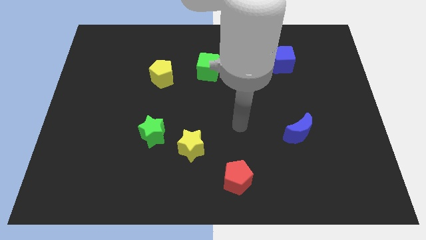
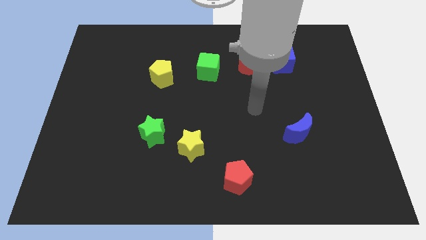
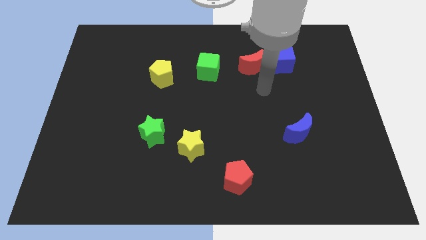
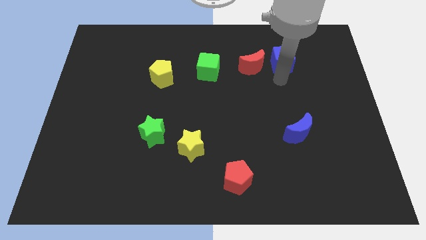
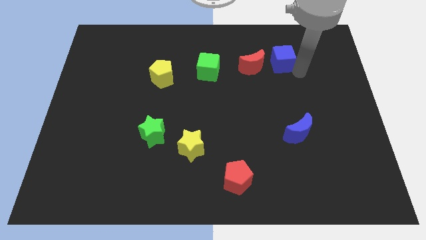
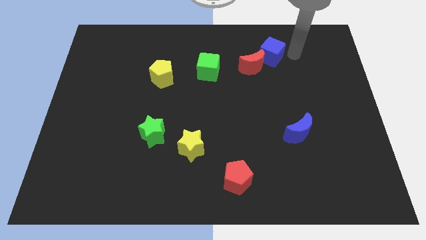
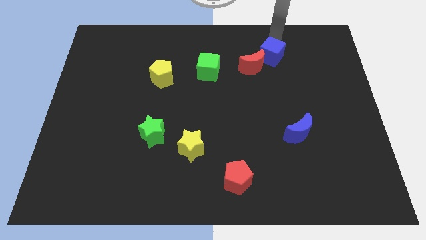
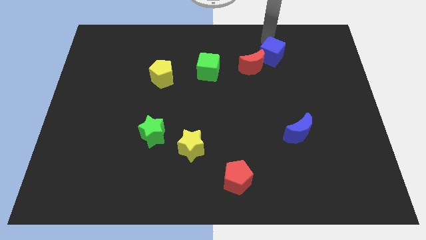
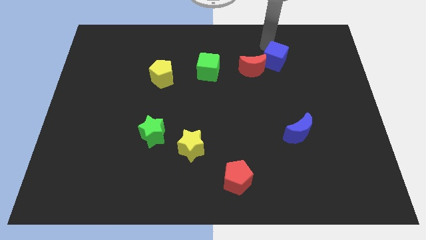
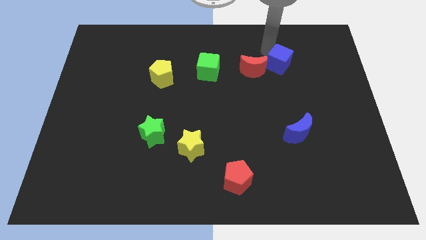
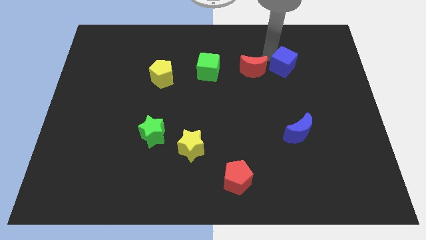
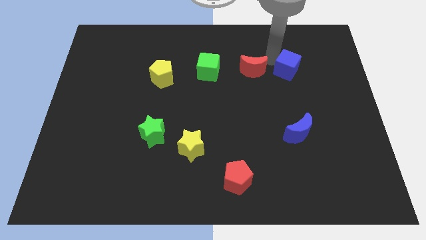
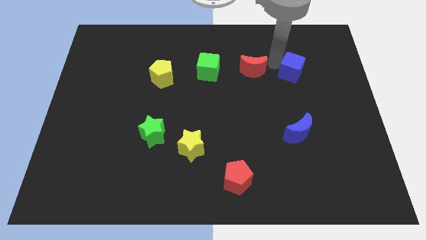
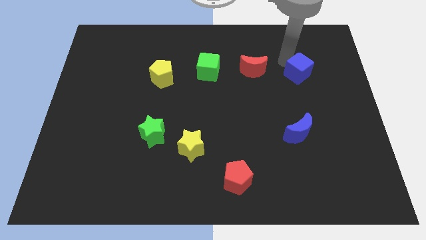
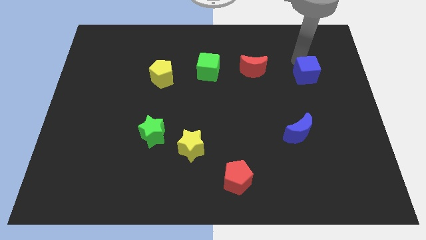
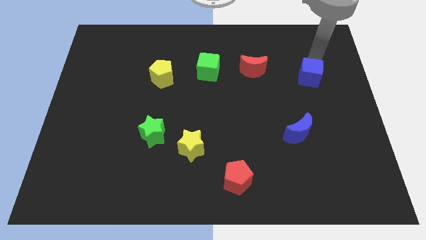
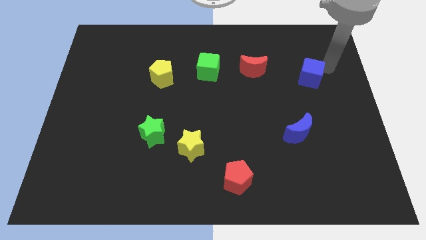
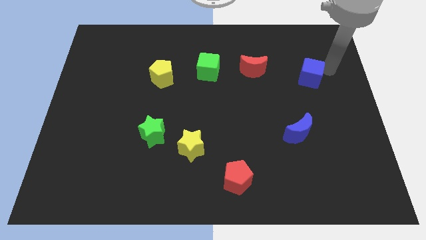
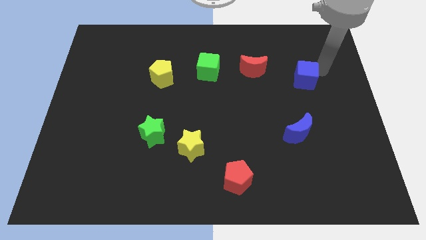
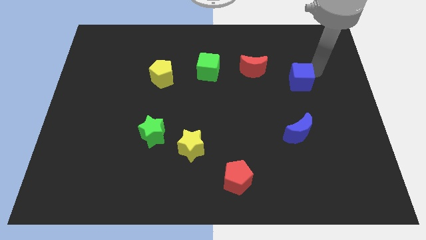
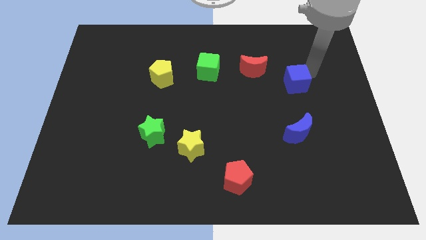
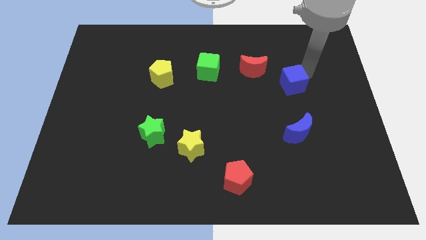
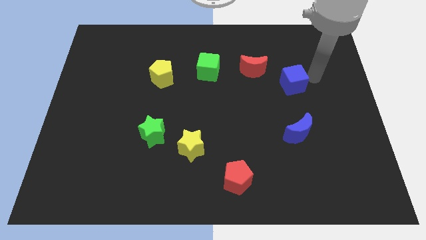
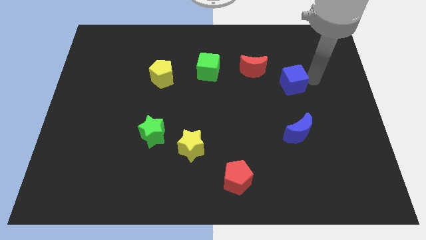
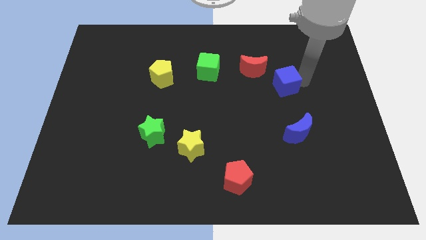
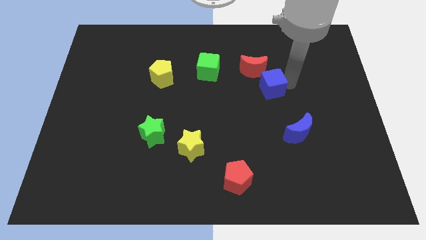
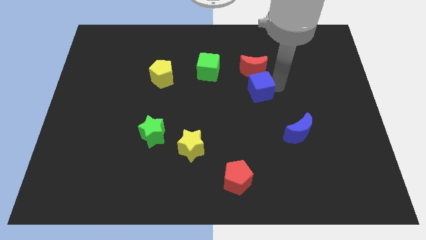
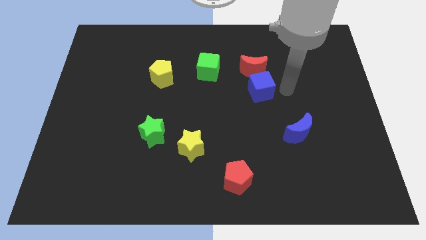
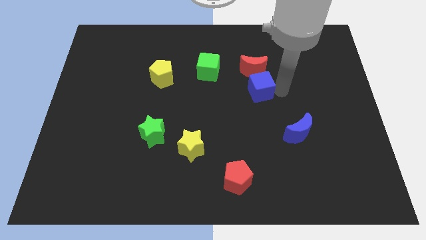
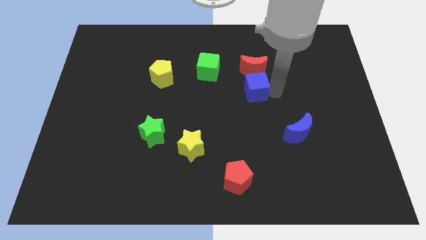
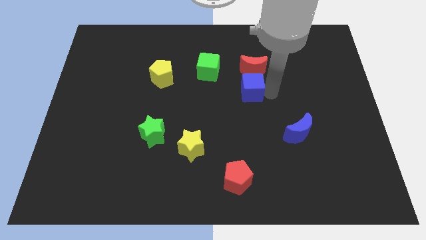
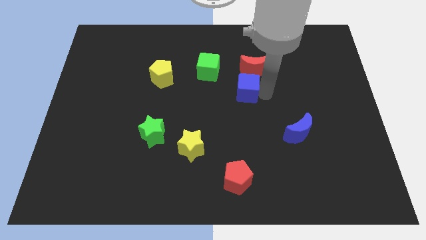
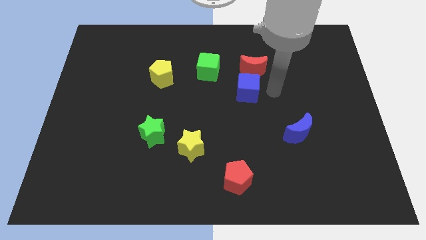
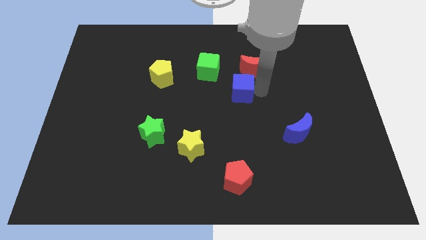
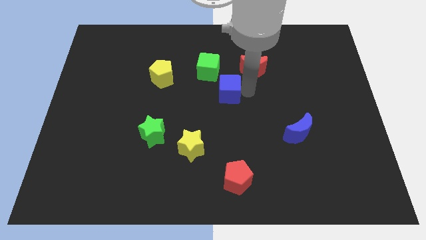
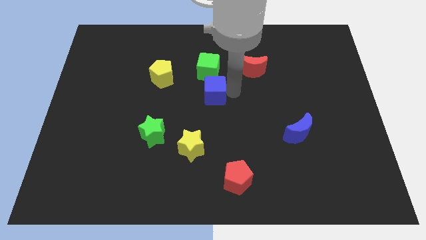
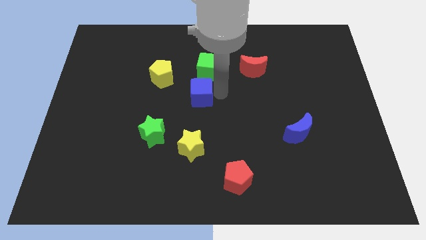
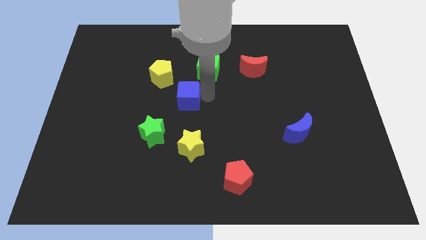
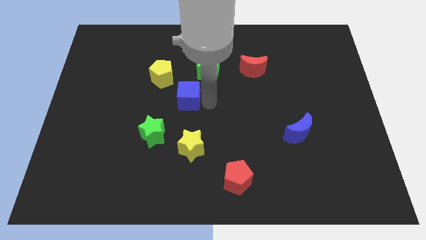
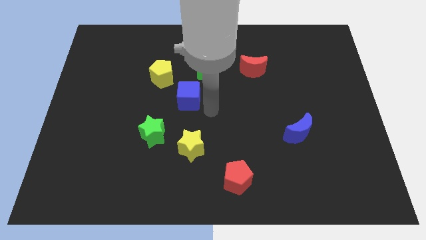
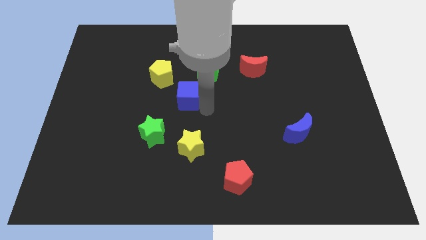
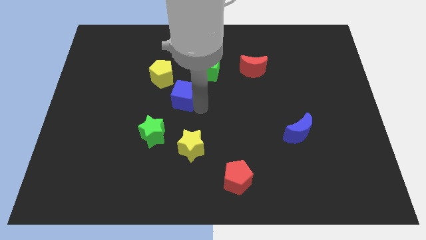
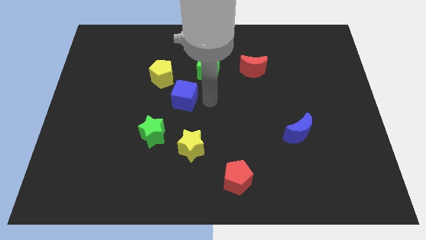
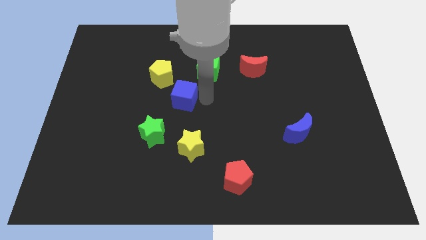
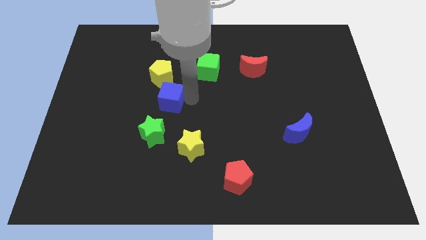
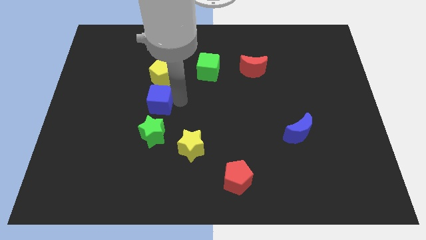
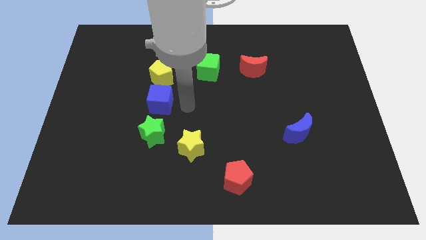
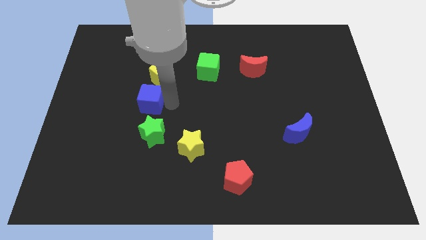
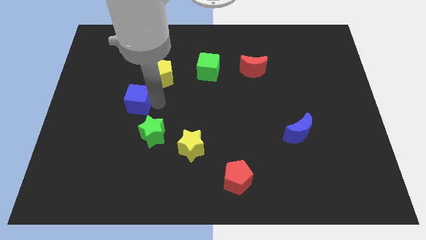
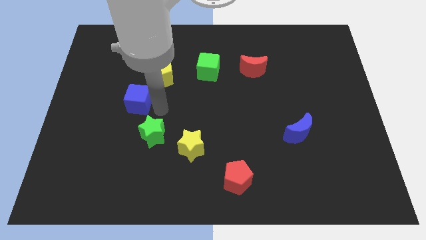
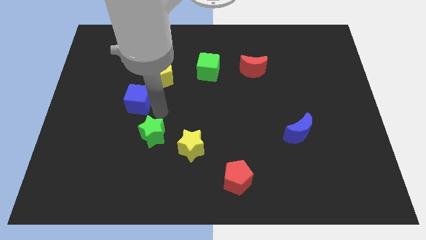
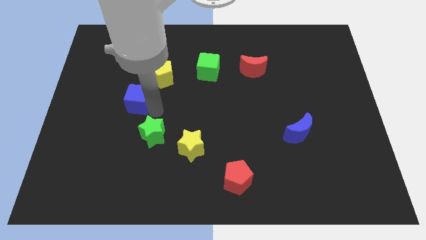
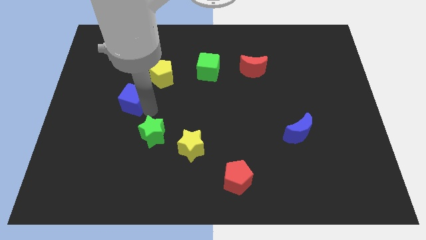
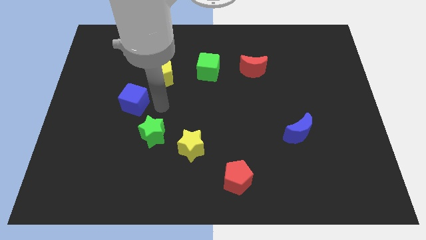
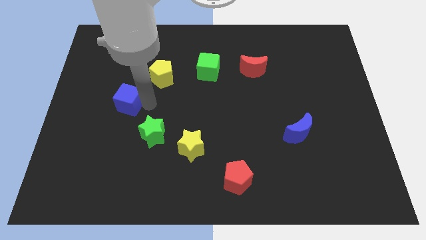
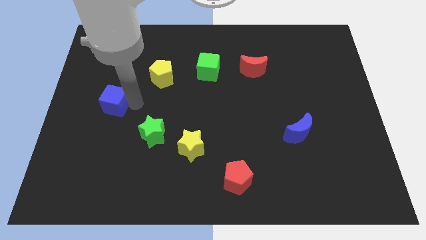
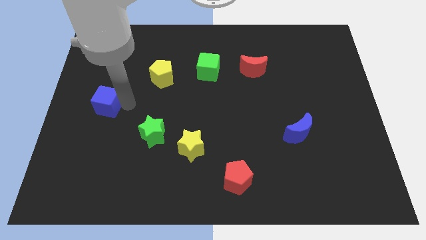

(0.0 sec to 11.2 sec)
move the blue cube to the left side

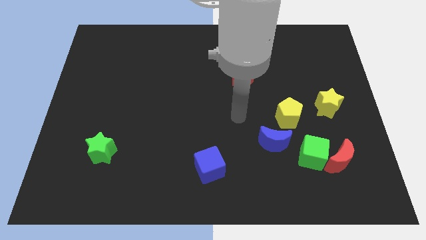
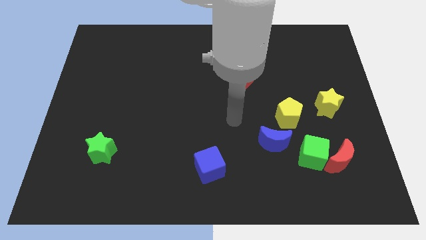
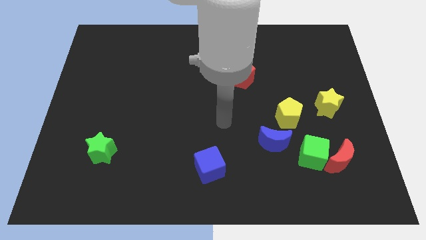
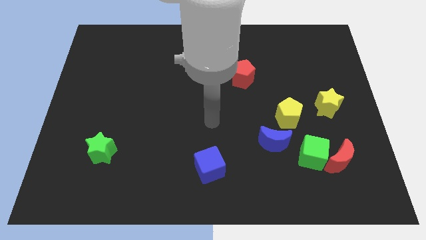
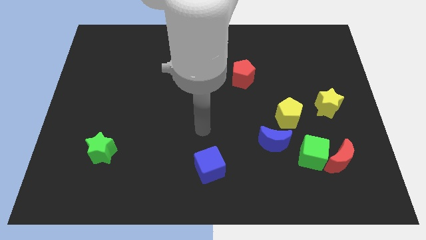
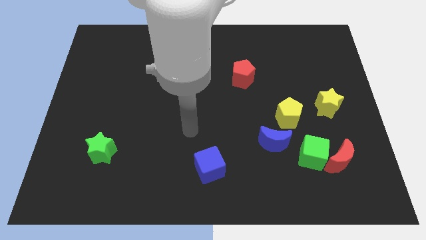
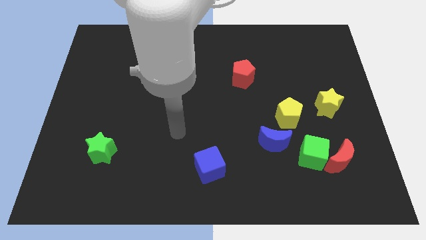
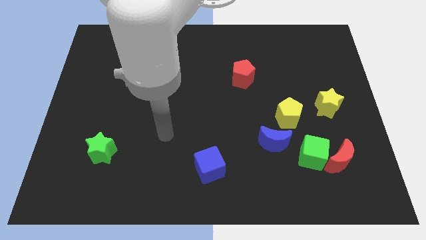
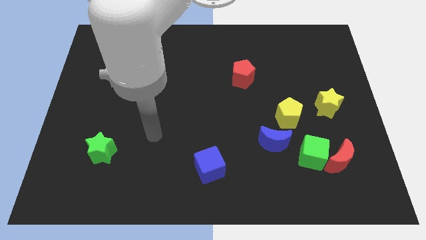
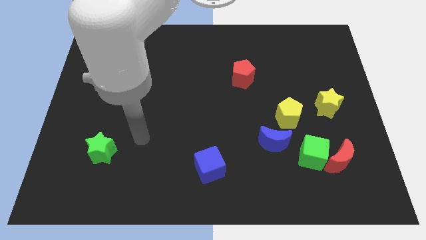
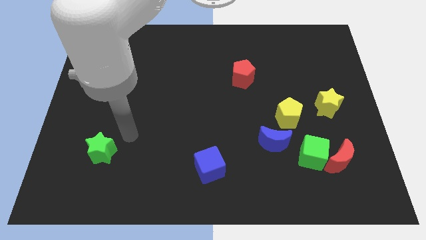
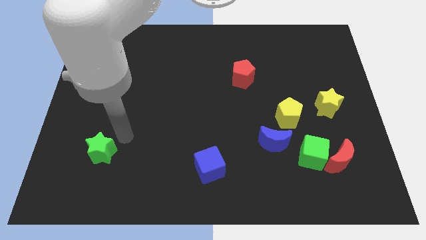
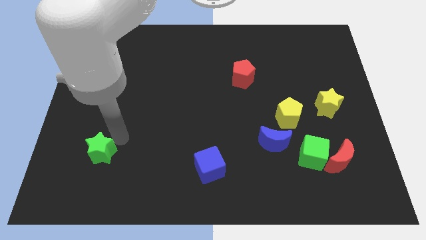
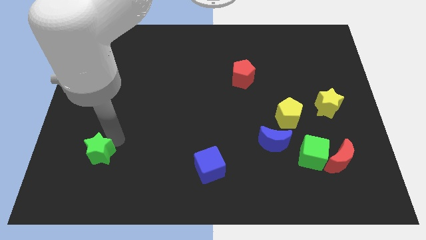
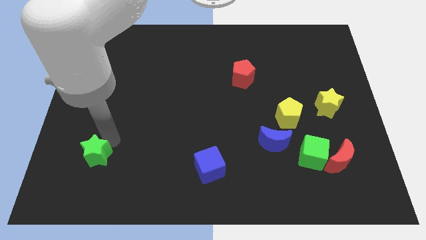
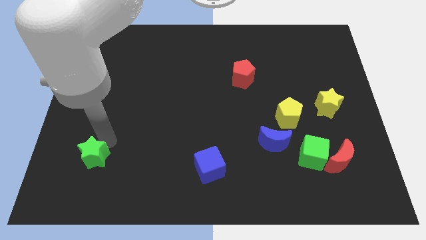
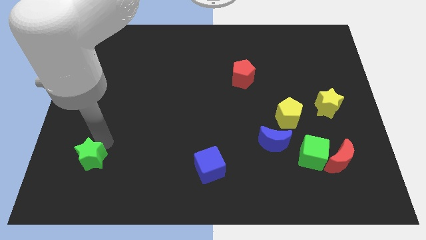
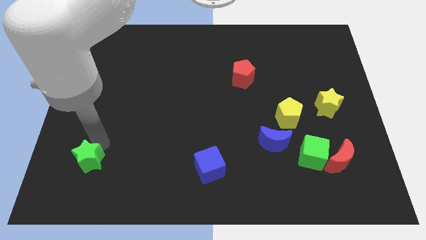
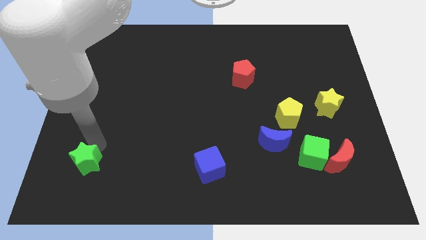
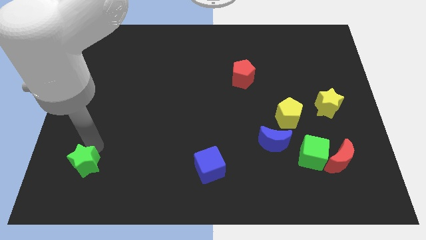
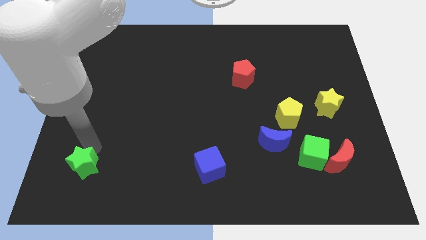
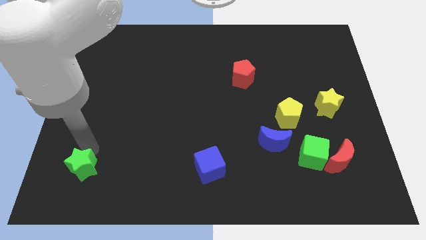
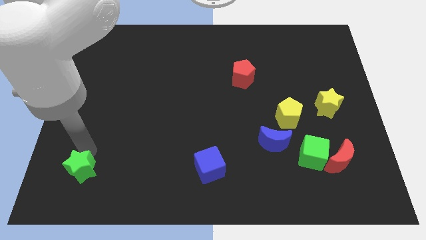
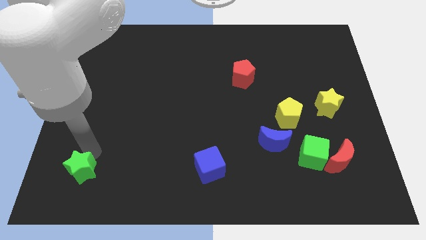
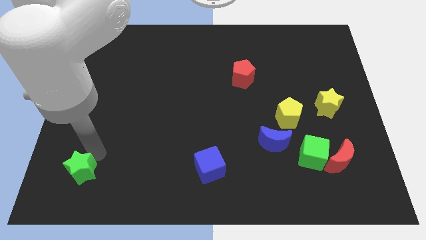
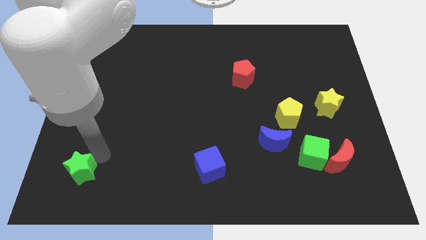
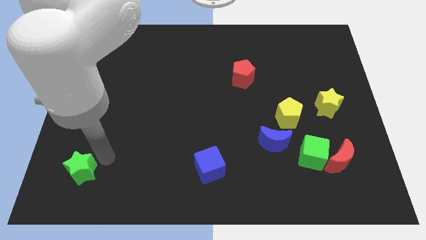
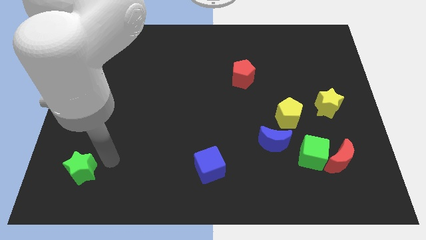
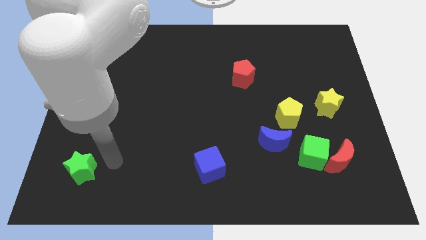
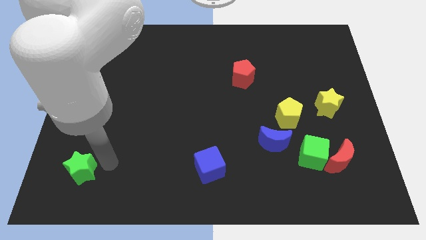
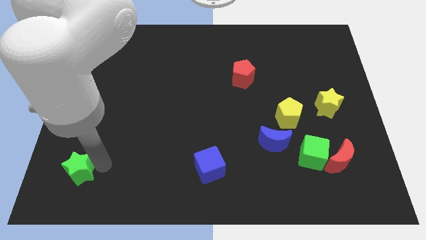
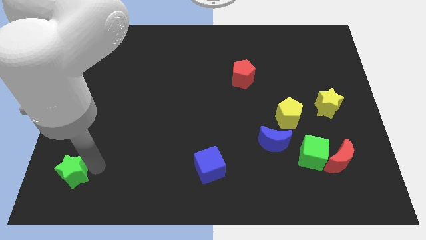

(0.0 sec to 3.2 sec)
move the green star to the bottom left
